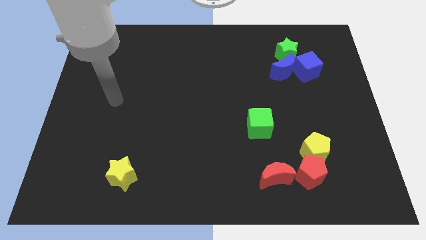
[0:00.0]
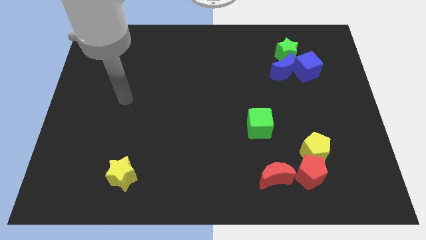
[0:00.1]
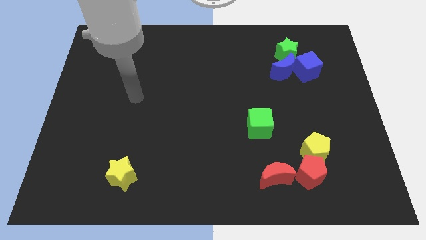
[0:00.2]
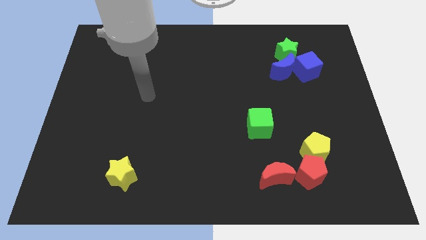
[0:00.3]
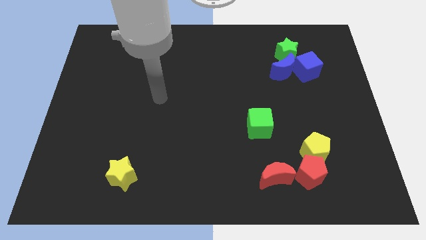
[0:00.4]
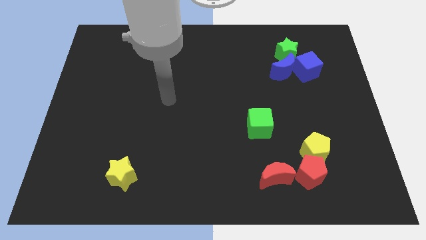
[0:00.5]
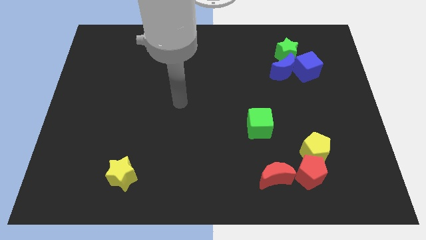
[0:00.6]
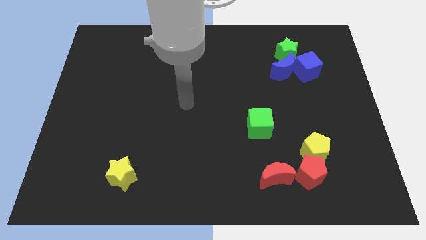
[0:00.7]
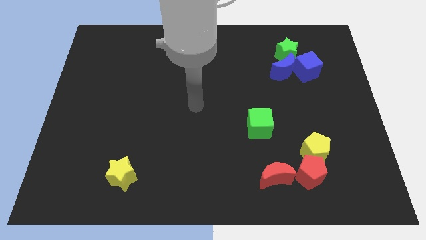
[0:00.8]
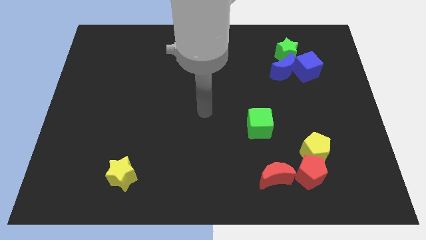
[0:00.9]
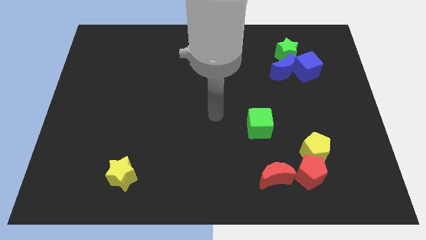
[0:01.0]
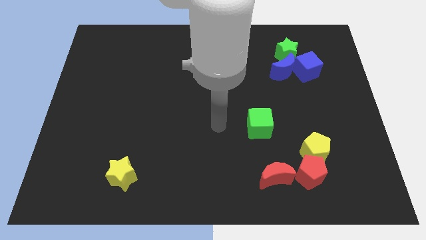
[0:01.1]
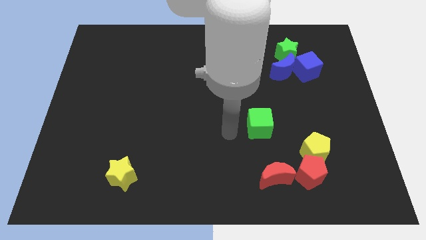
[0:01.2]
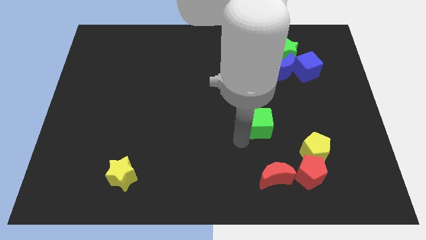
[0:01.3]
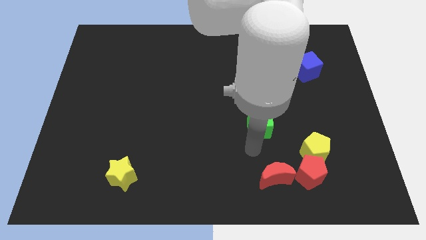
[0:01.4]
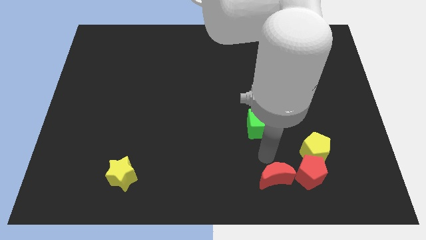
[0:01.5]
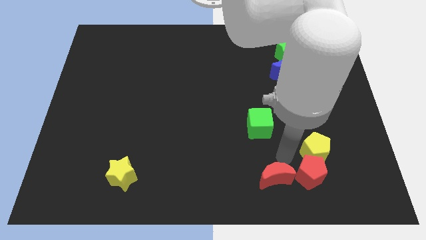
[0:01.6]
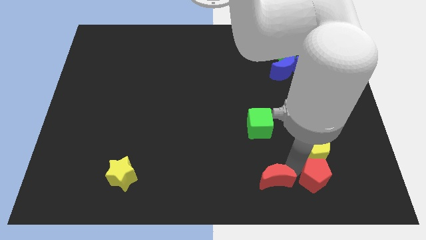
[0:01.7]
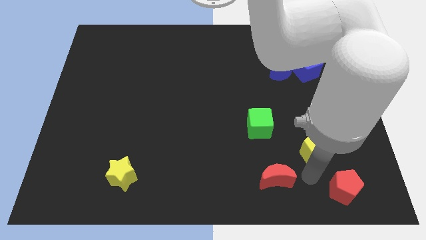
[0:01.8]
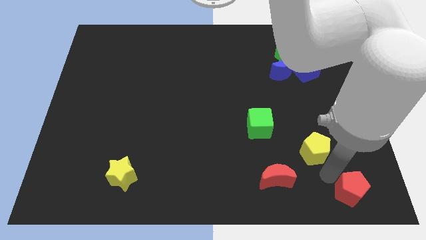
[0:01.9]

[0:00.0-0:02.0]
separate the yellow pentagon from the red pentagon

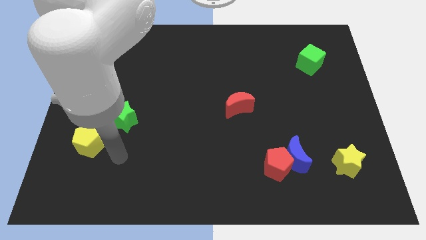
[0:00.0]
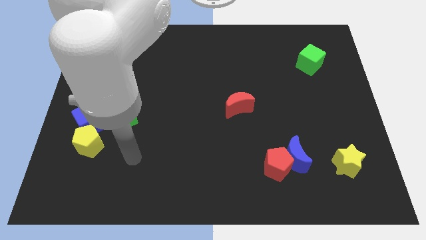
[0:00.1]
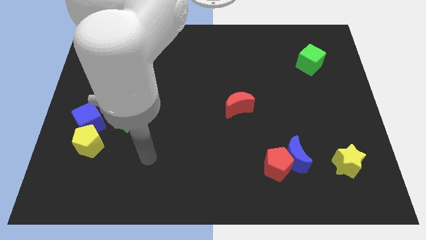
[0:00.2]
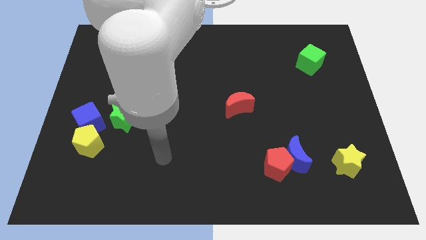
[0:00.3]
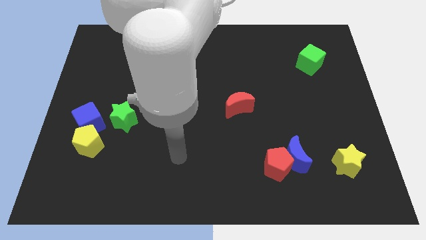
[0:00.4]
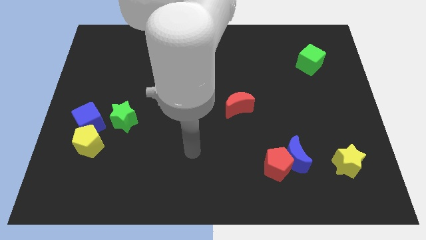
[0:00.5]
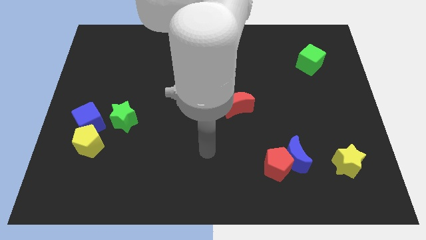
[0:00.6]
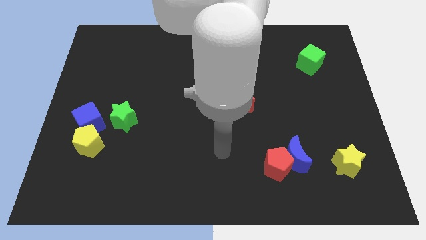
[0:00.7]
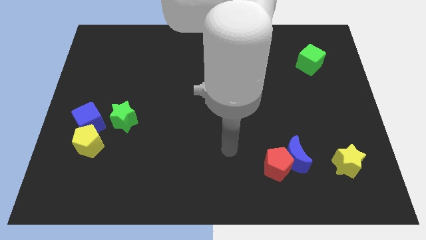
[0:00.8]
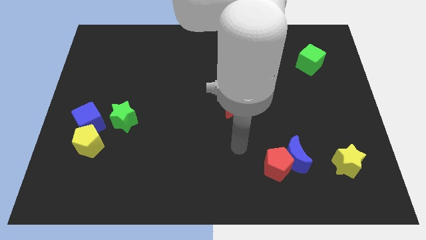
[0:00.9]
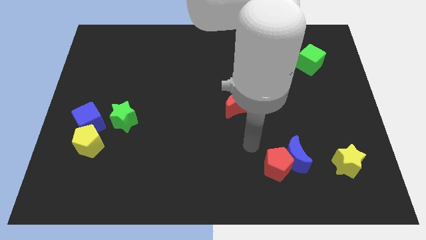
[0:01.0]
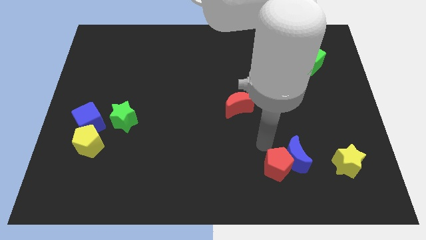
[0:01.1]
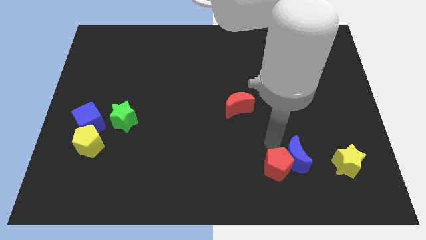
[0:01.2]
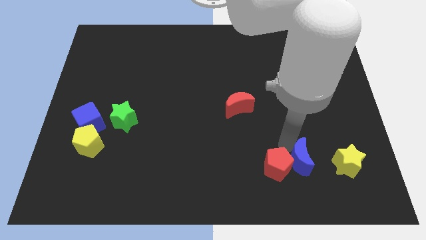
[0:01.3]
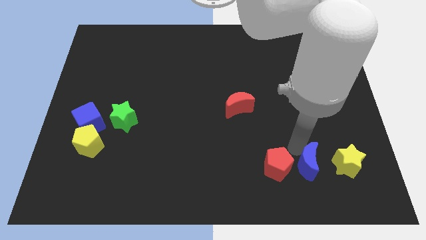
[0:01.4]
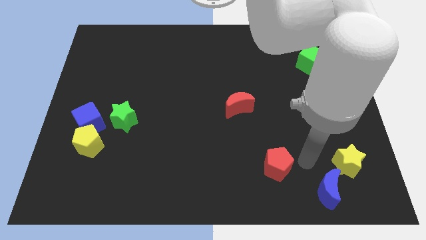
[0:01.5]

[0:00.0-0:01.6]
move the red pentagon away from the blue moon

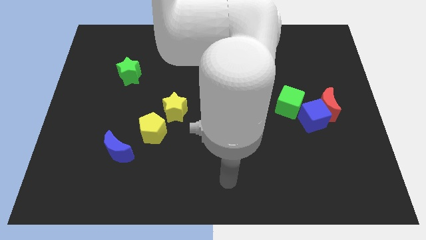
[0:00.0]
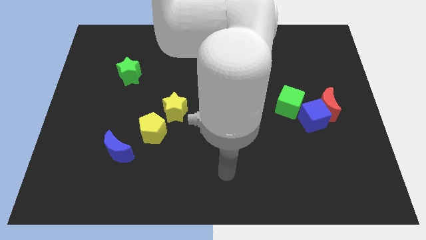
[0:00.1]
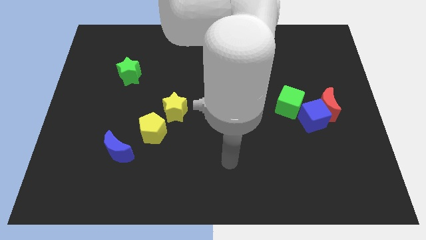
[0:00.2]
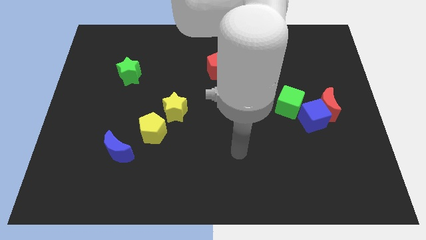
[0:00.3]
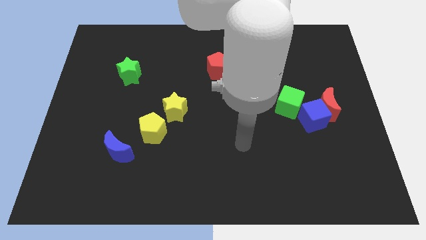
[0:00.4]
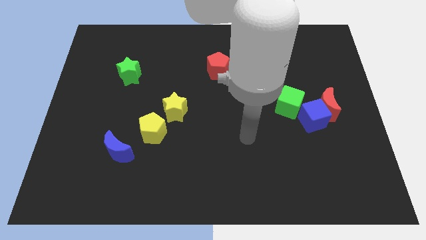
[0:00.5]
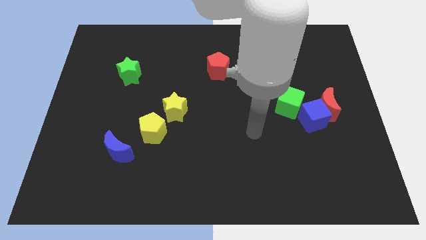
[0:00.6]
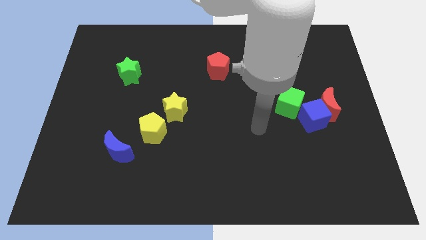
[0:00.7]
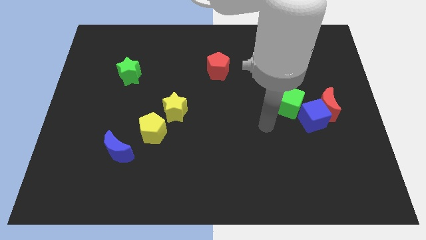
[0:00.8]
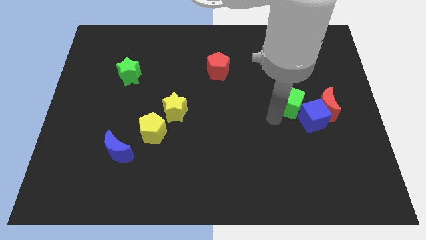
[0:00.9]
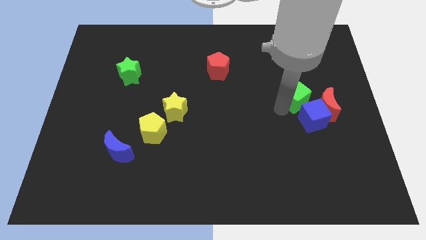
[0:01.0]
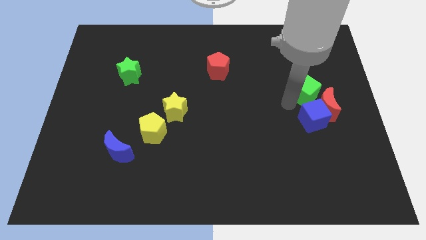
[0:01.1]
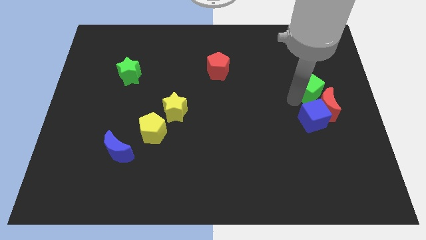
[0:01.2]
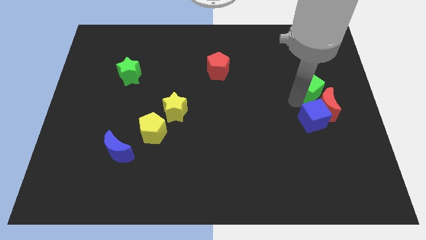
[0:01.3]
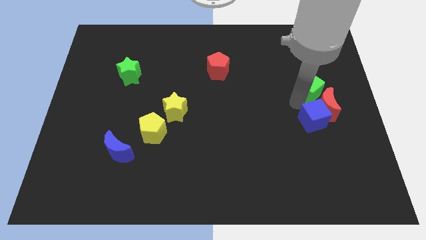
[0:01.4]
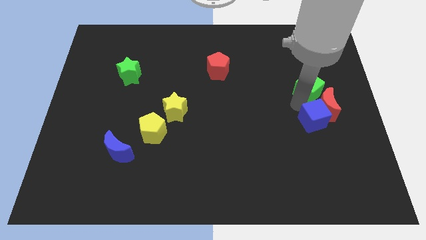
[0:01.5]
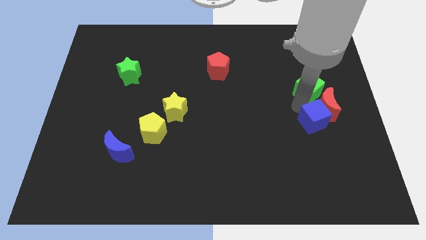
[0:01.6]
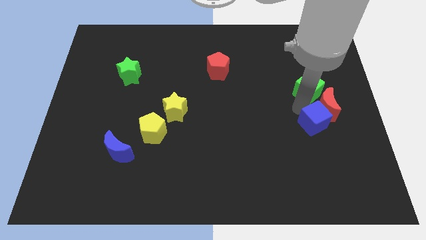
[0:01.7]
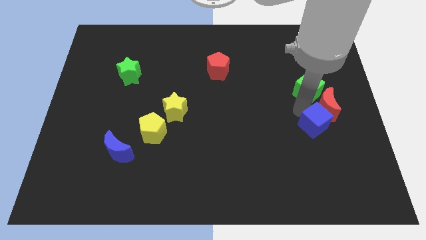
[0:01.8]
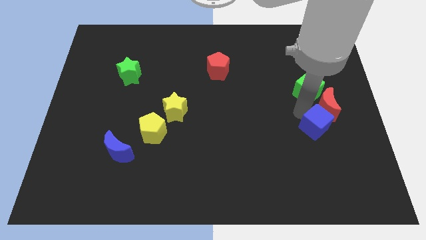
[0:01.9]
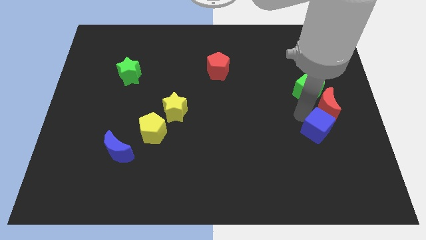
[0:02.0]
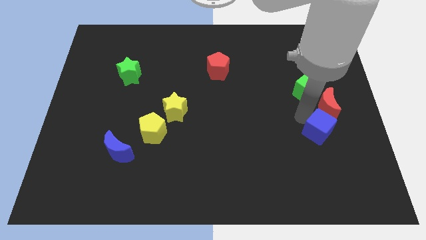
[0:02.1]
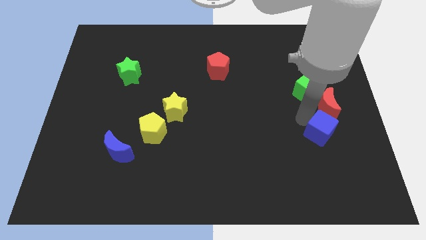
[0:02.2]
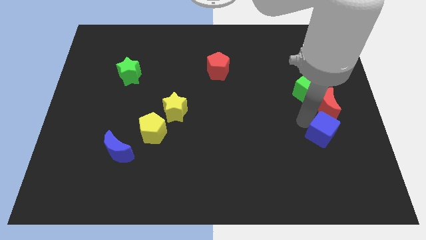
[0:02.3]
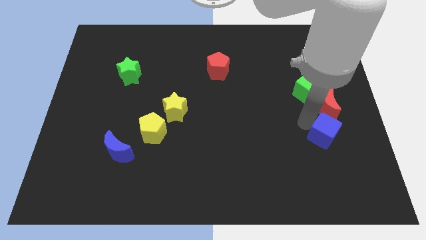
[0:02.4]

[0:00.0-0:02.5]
pull the blue cube apart from the red moon and green cube

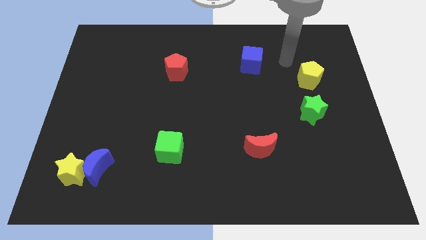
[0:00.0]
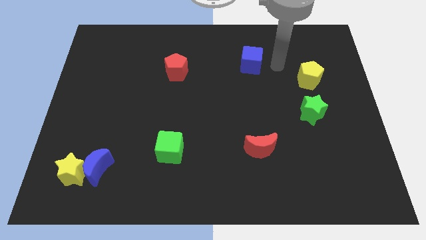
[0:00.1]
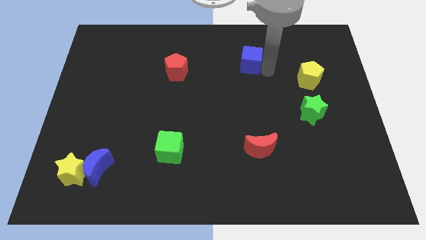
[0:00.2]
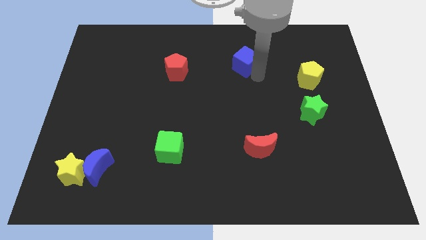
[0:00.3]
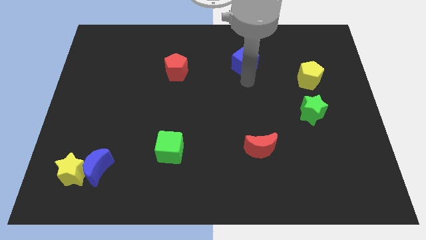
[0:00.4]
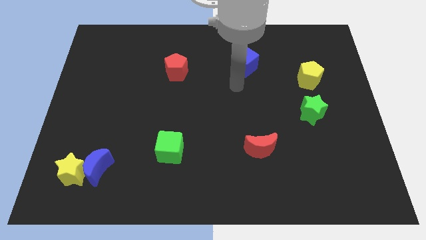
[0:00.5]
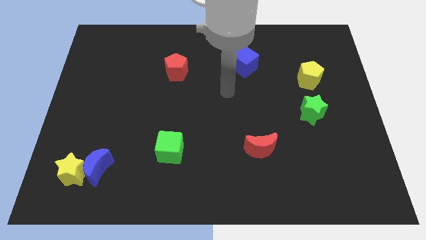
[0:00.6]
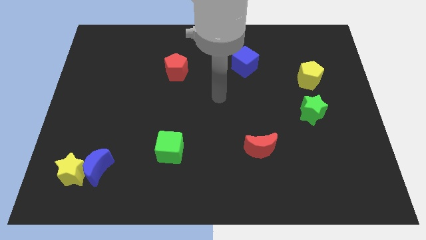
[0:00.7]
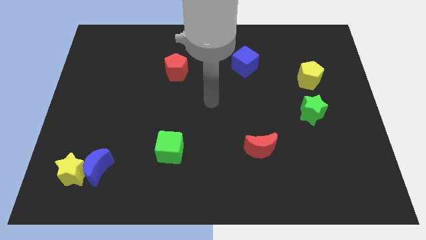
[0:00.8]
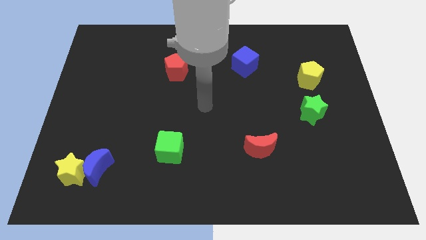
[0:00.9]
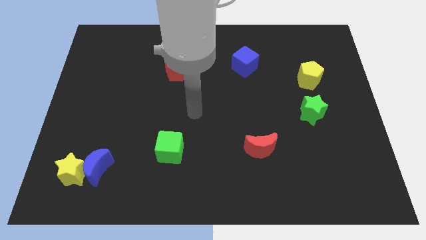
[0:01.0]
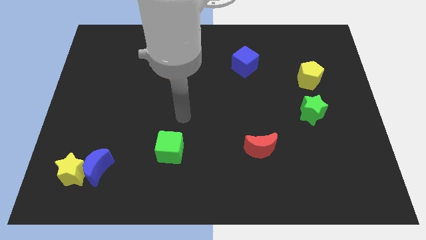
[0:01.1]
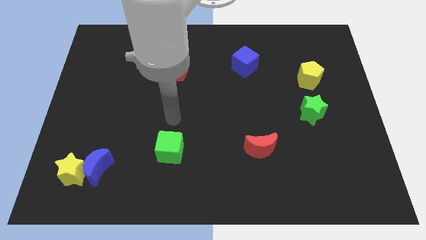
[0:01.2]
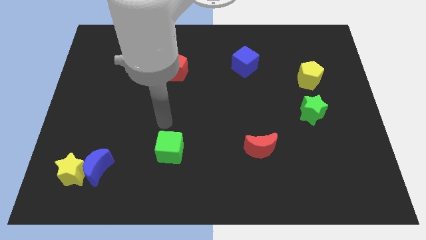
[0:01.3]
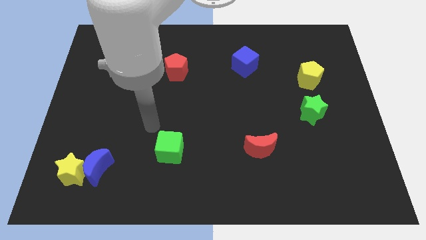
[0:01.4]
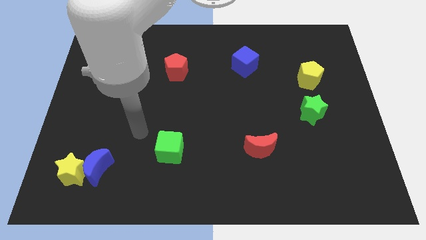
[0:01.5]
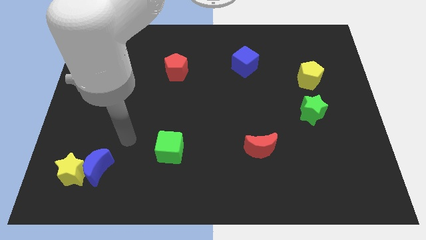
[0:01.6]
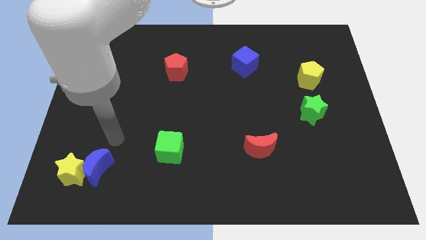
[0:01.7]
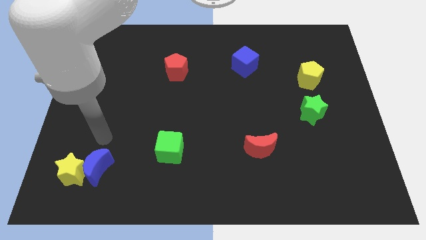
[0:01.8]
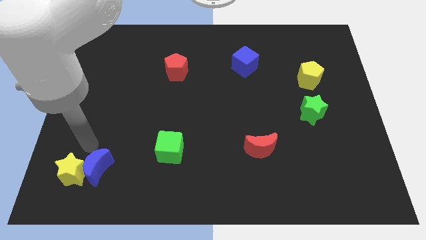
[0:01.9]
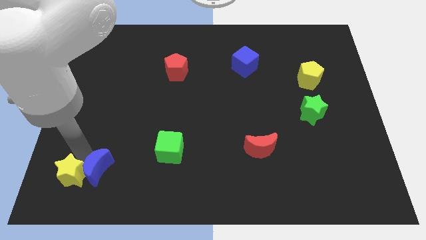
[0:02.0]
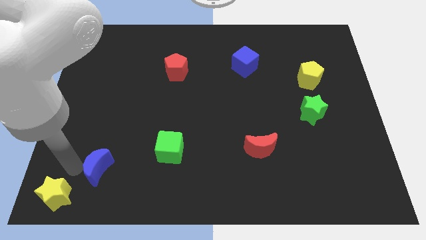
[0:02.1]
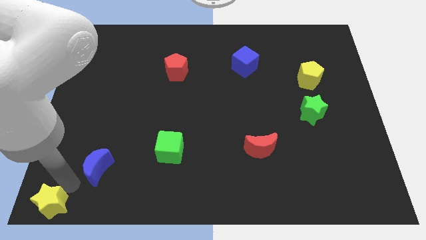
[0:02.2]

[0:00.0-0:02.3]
move the blue moon away from the yellow star

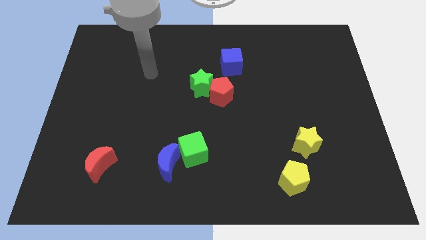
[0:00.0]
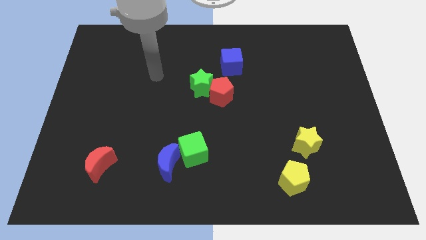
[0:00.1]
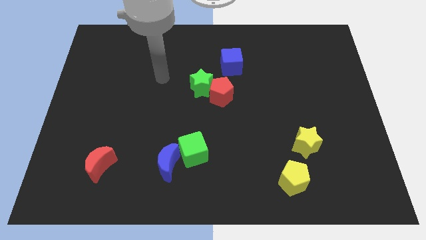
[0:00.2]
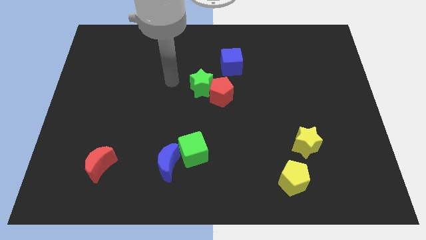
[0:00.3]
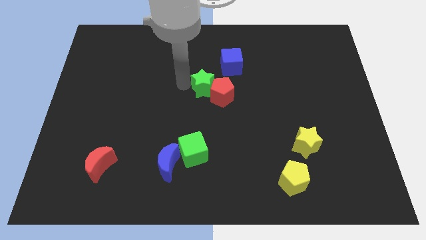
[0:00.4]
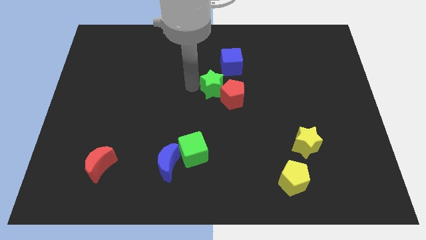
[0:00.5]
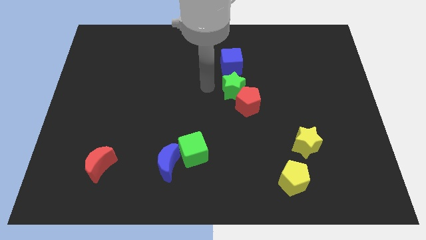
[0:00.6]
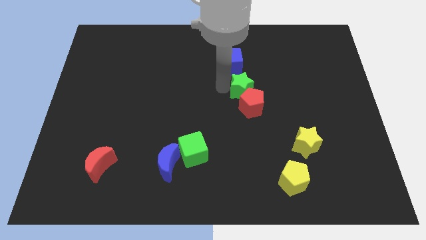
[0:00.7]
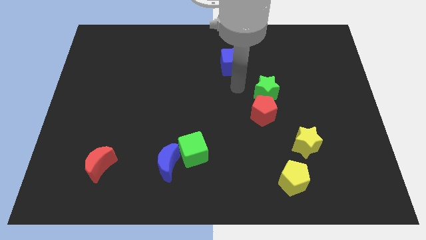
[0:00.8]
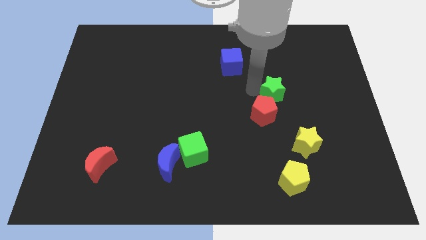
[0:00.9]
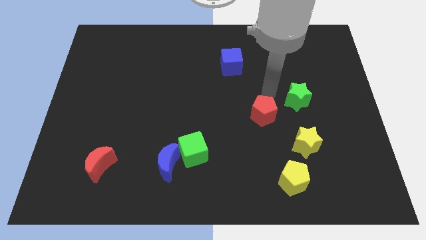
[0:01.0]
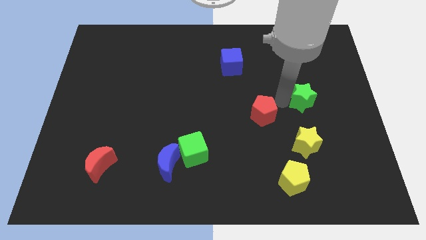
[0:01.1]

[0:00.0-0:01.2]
move the red pentagon away from the green star
